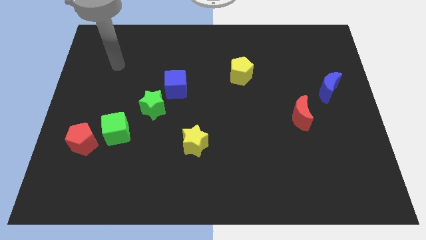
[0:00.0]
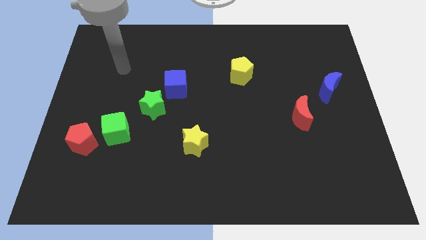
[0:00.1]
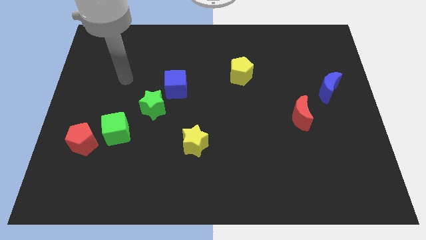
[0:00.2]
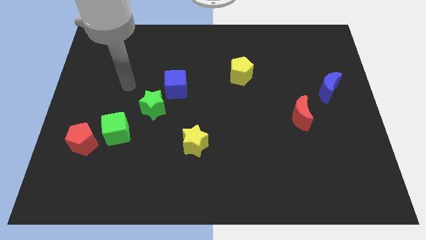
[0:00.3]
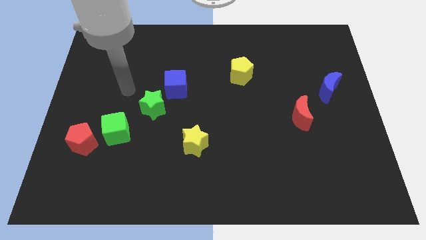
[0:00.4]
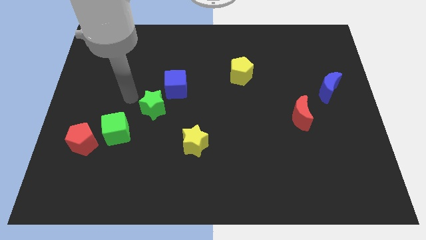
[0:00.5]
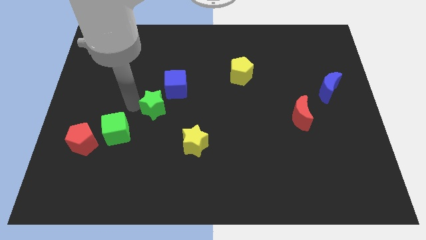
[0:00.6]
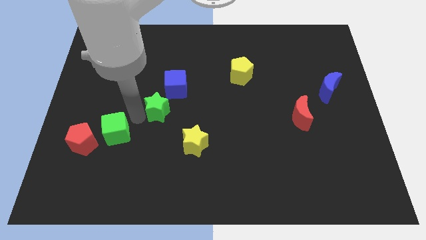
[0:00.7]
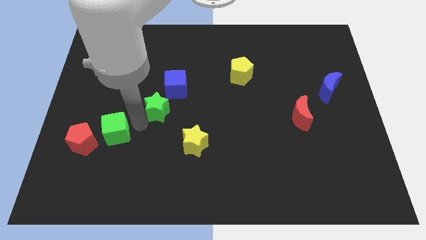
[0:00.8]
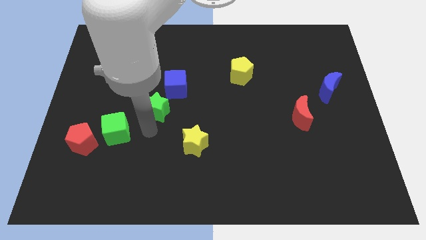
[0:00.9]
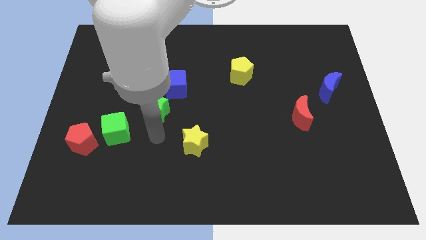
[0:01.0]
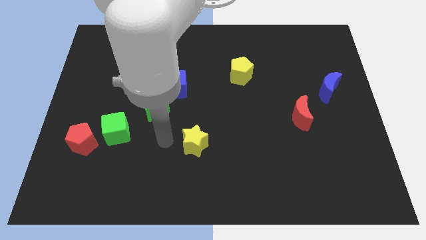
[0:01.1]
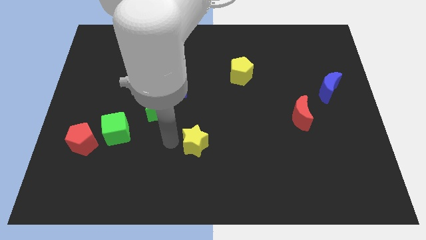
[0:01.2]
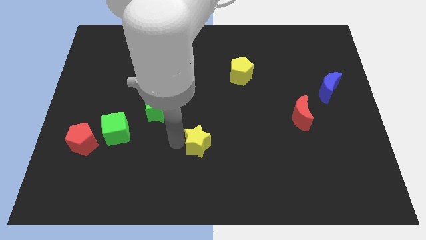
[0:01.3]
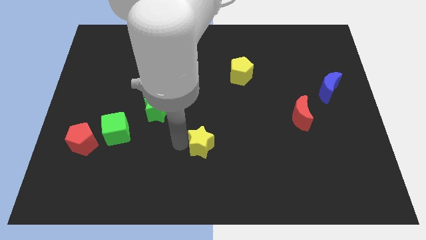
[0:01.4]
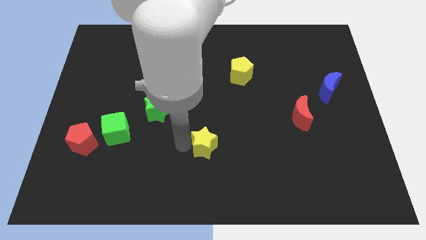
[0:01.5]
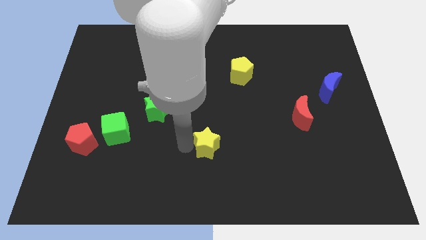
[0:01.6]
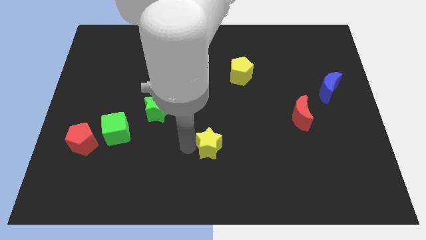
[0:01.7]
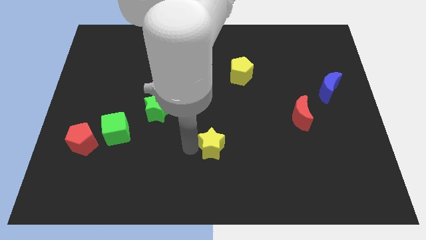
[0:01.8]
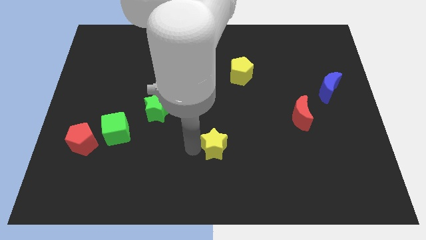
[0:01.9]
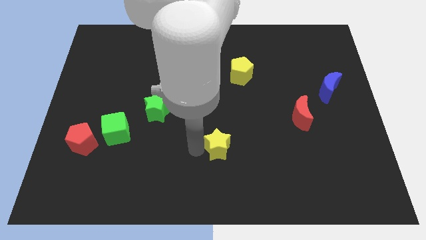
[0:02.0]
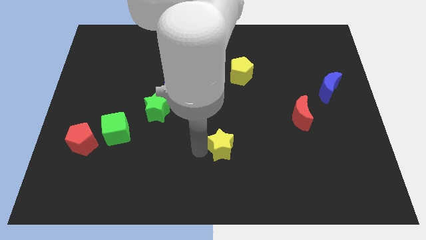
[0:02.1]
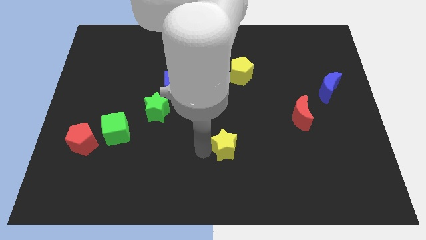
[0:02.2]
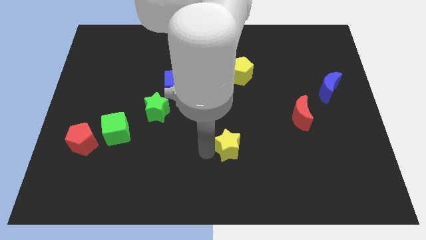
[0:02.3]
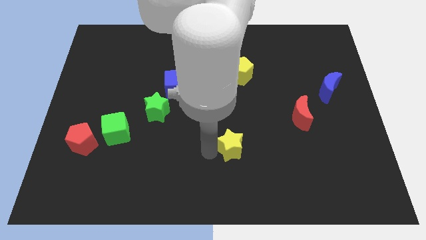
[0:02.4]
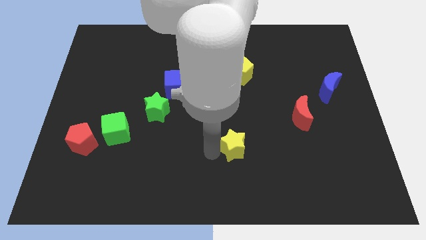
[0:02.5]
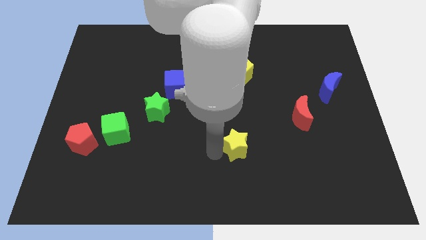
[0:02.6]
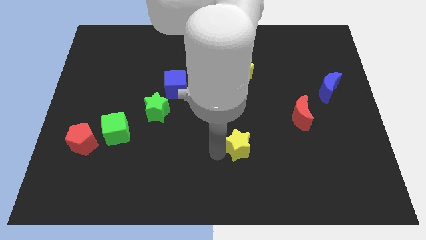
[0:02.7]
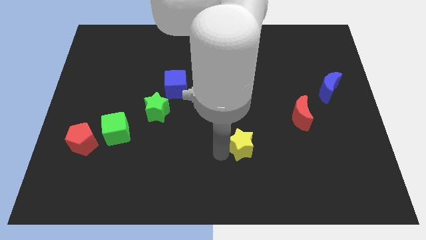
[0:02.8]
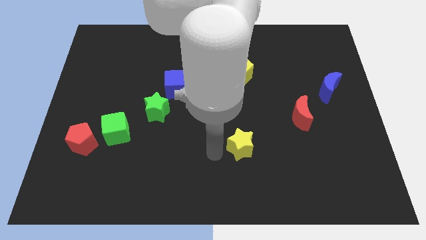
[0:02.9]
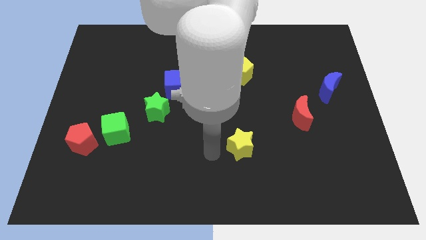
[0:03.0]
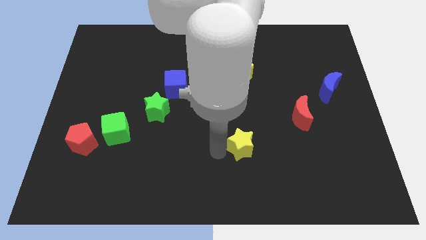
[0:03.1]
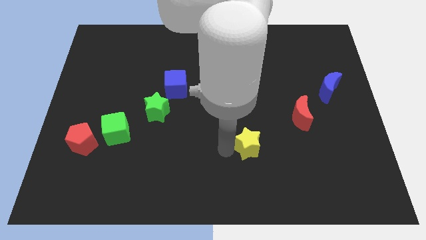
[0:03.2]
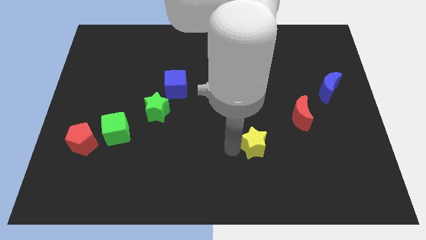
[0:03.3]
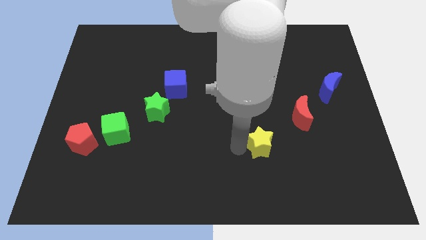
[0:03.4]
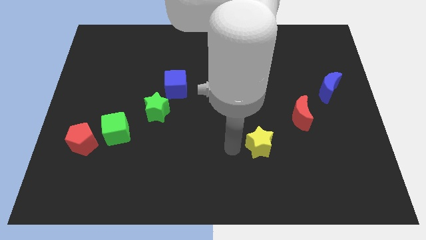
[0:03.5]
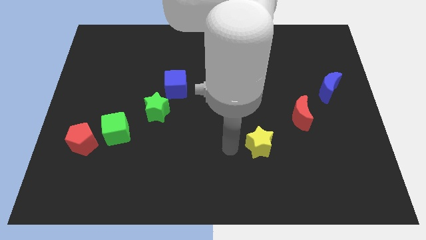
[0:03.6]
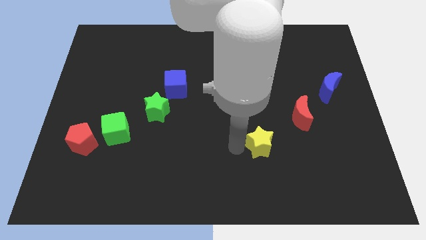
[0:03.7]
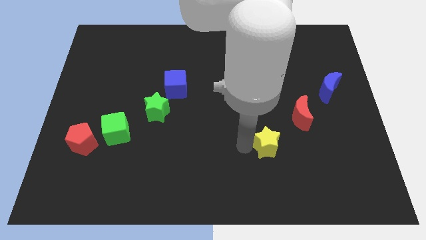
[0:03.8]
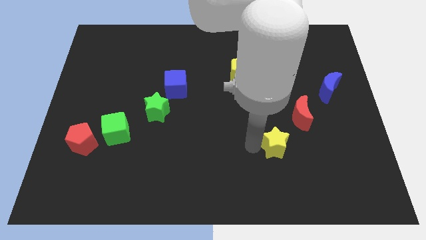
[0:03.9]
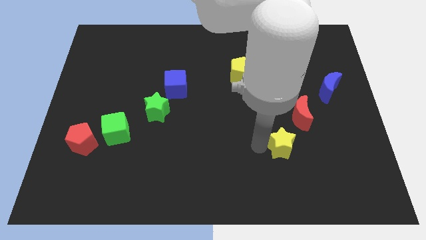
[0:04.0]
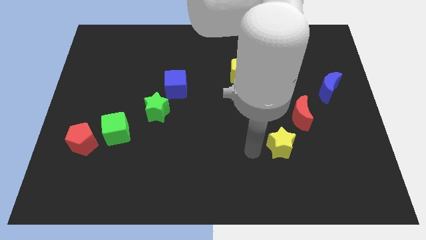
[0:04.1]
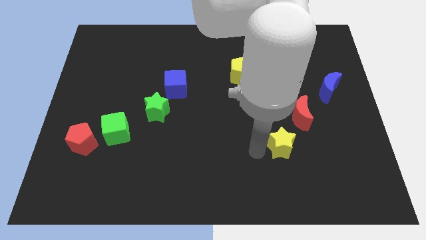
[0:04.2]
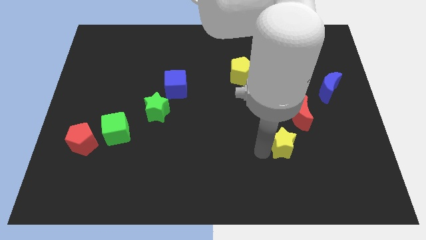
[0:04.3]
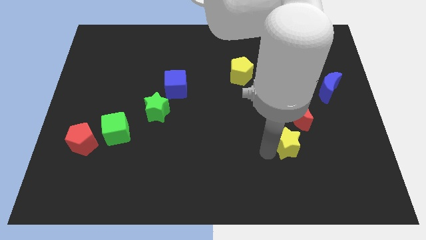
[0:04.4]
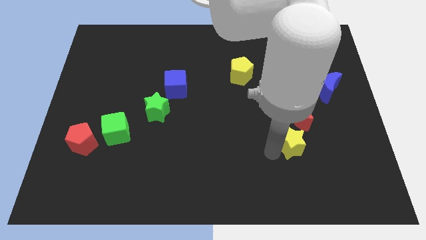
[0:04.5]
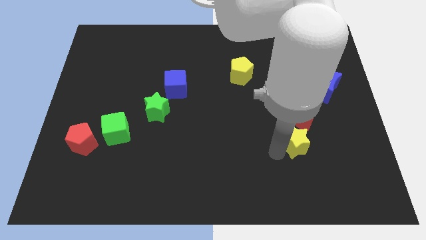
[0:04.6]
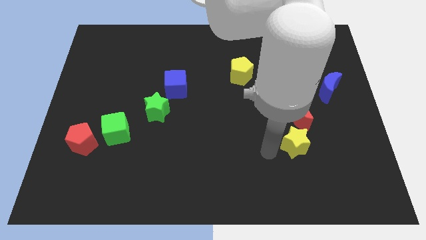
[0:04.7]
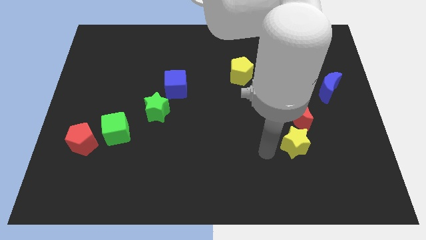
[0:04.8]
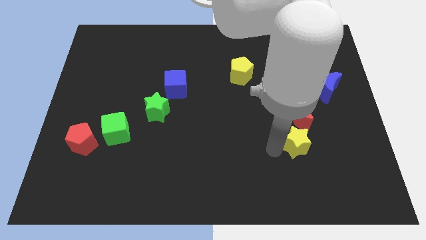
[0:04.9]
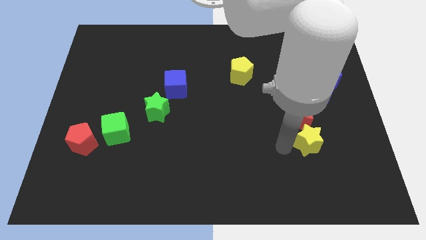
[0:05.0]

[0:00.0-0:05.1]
push the yellow star to the bottom right side of the red moon

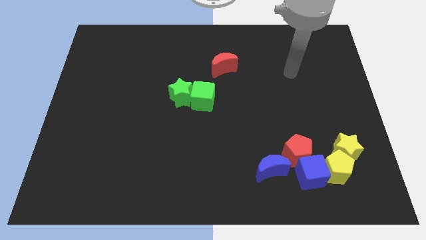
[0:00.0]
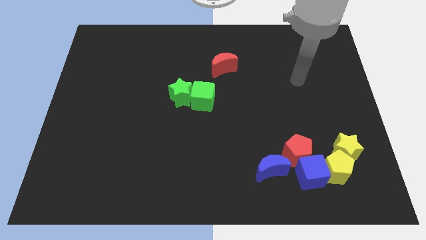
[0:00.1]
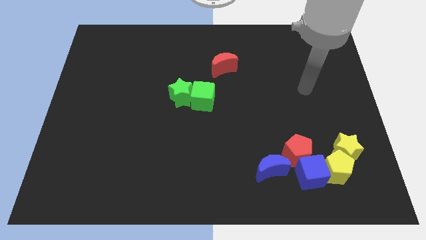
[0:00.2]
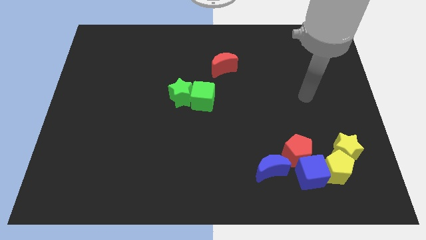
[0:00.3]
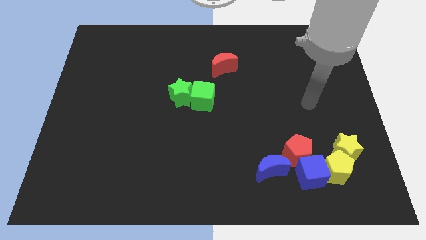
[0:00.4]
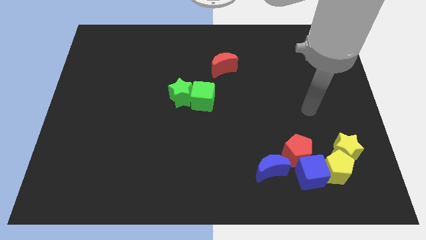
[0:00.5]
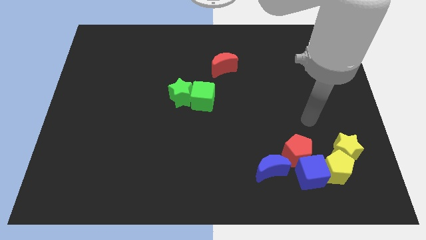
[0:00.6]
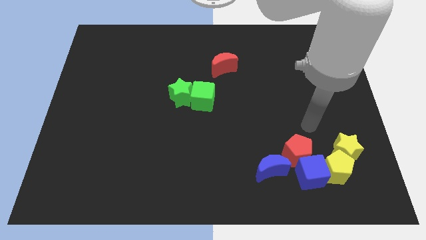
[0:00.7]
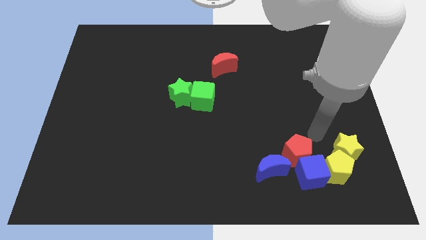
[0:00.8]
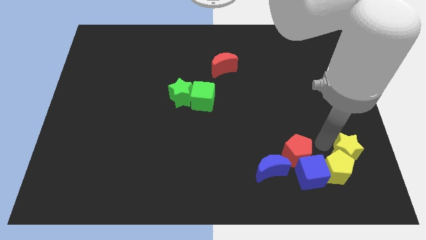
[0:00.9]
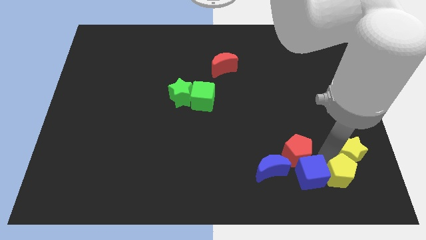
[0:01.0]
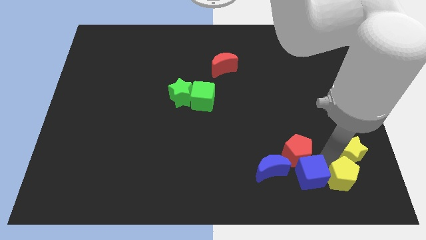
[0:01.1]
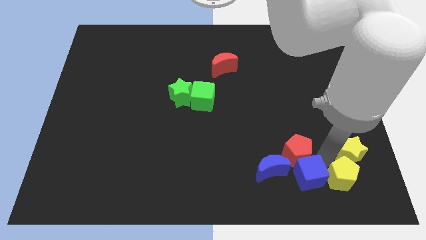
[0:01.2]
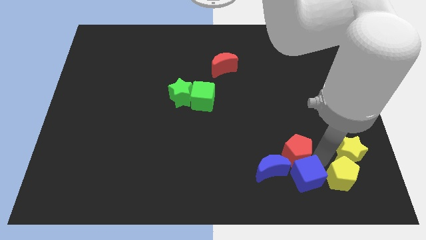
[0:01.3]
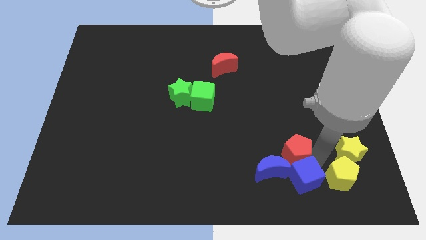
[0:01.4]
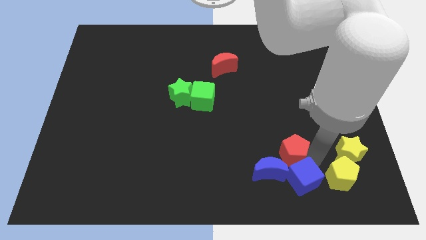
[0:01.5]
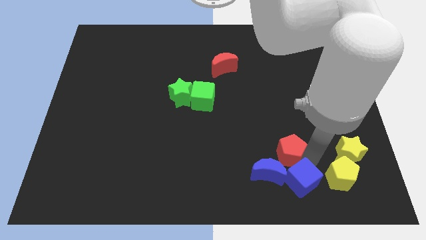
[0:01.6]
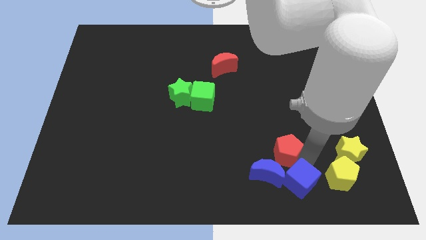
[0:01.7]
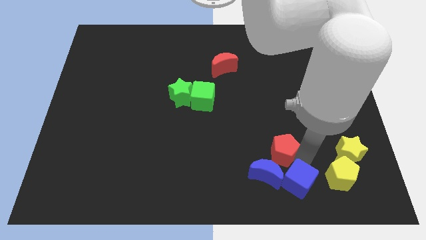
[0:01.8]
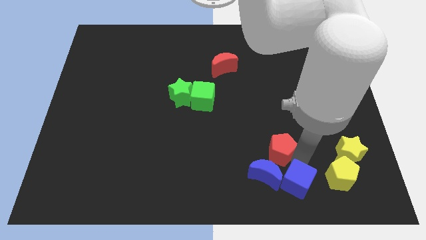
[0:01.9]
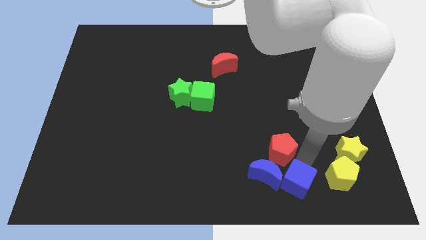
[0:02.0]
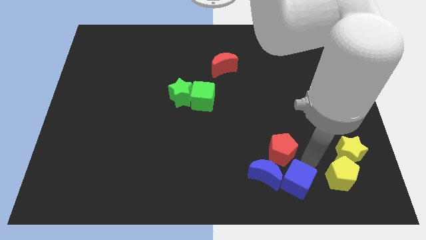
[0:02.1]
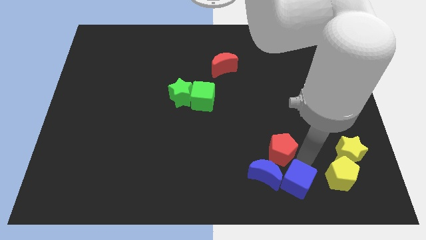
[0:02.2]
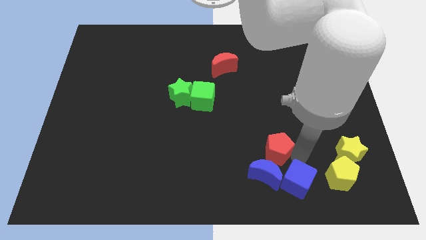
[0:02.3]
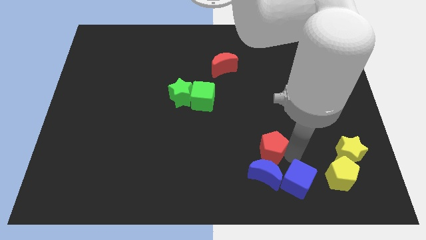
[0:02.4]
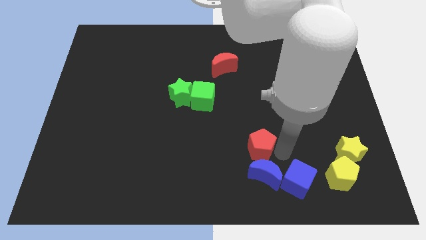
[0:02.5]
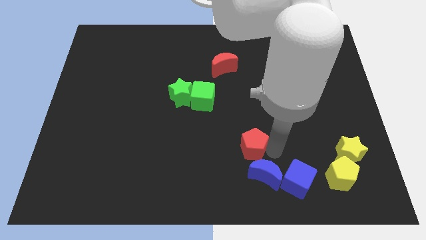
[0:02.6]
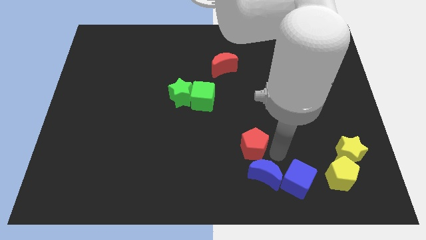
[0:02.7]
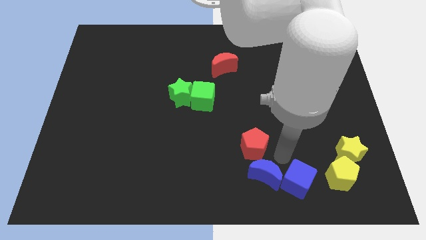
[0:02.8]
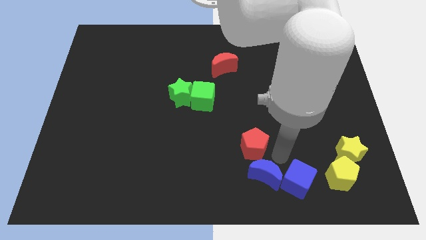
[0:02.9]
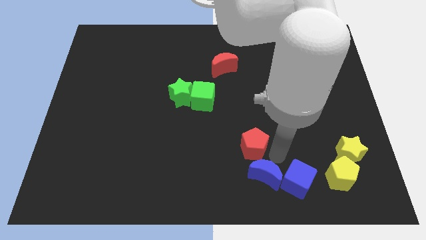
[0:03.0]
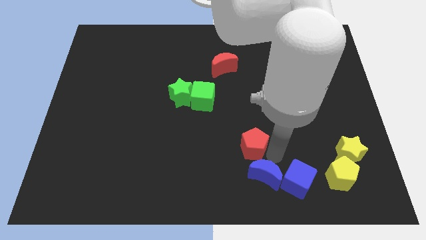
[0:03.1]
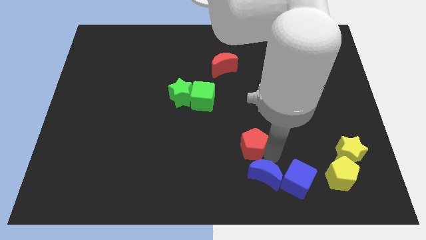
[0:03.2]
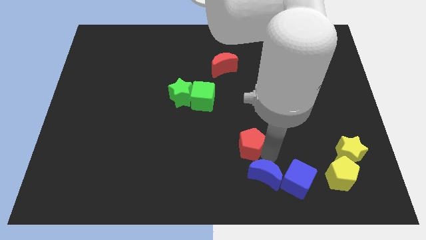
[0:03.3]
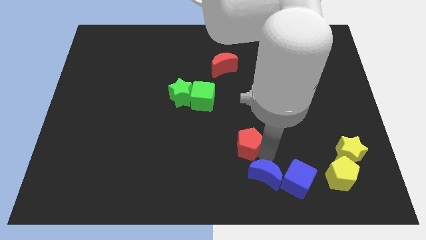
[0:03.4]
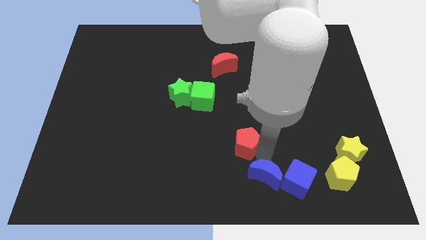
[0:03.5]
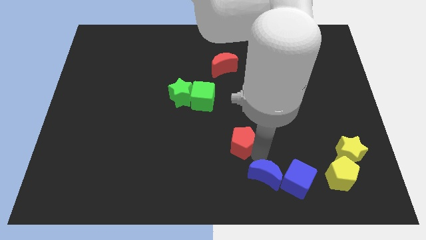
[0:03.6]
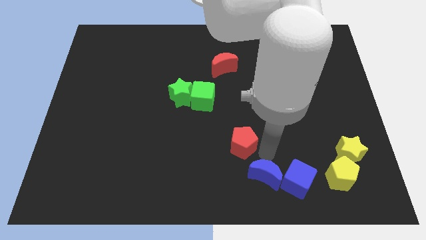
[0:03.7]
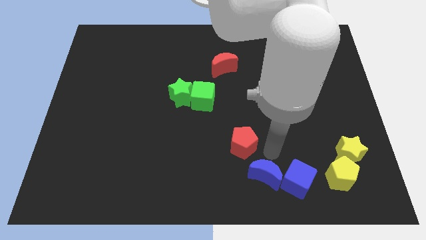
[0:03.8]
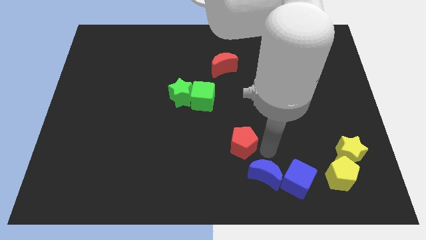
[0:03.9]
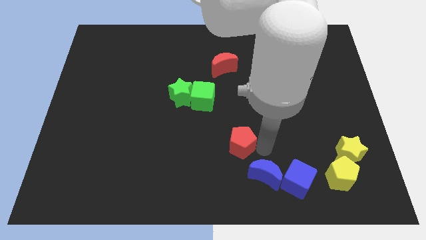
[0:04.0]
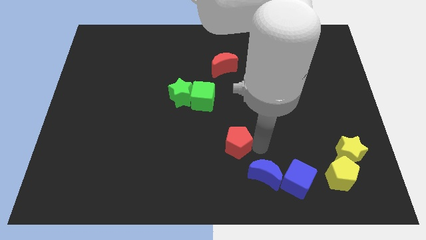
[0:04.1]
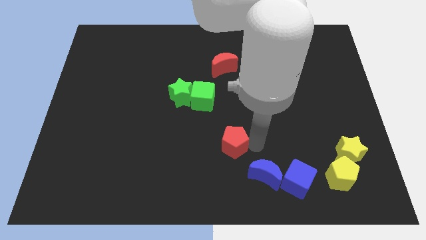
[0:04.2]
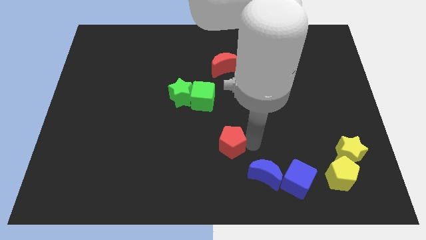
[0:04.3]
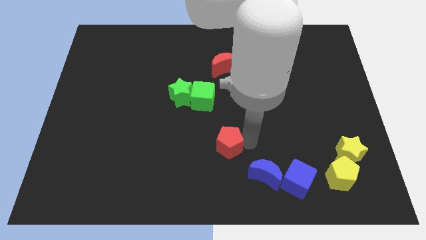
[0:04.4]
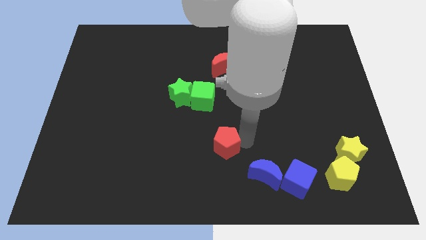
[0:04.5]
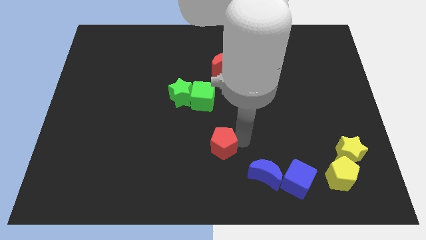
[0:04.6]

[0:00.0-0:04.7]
move the red pentagon below the green cube
